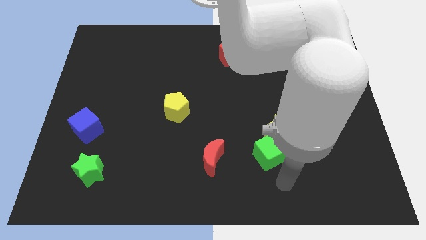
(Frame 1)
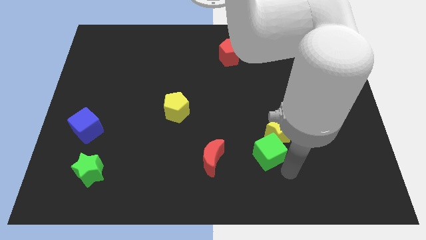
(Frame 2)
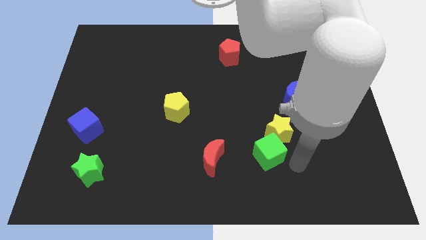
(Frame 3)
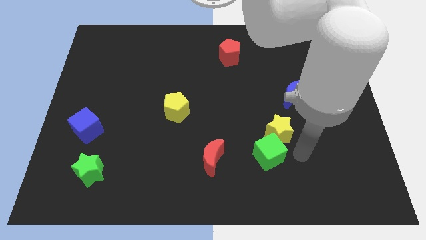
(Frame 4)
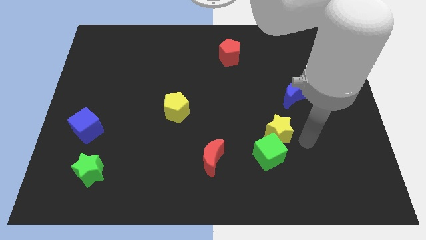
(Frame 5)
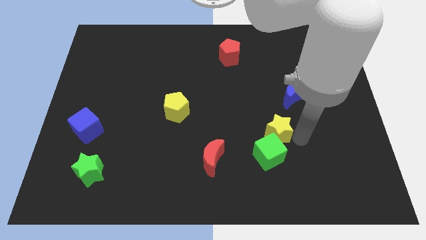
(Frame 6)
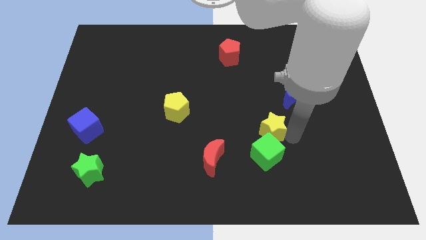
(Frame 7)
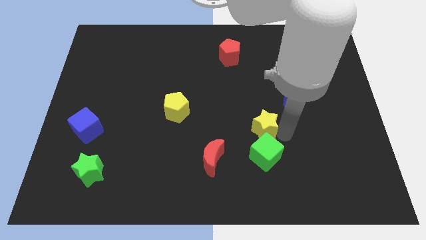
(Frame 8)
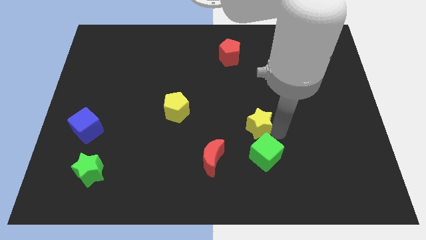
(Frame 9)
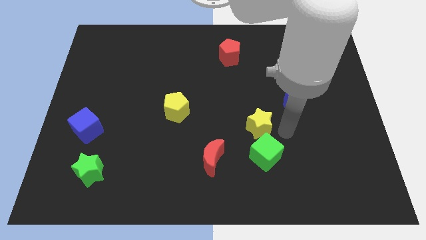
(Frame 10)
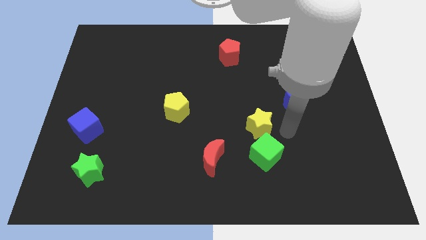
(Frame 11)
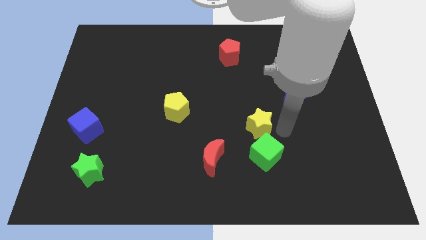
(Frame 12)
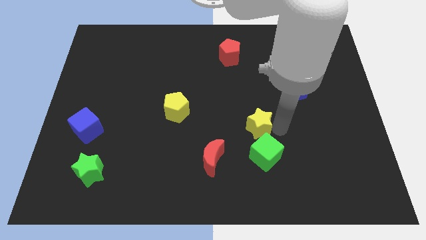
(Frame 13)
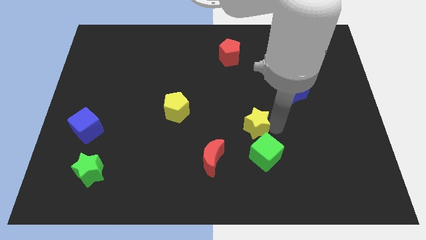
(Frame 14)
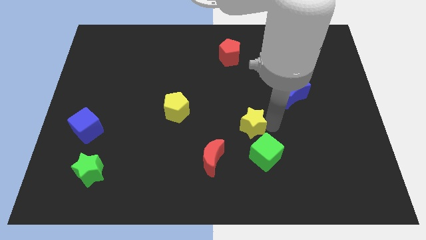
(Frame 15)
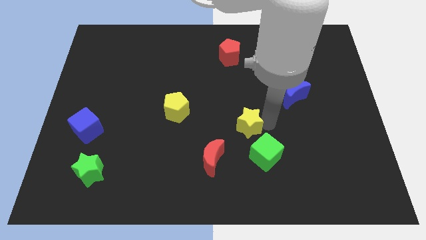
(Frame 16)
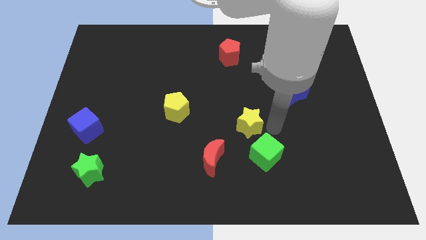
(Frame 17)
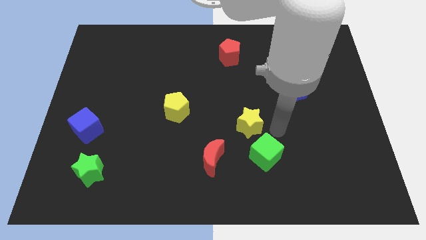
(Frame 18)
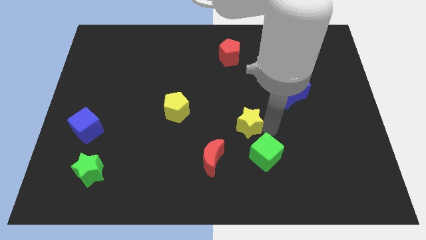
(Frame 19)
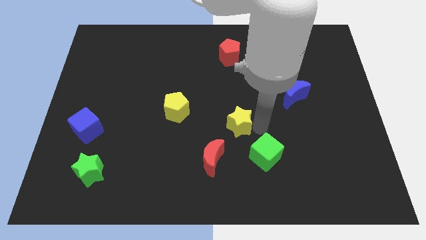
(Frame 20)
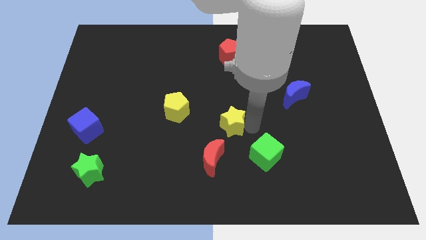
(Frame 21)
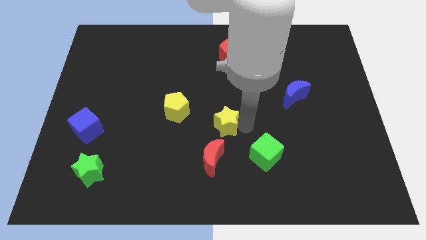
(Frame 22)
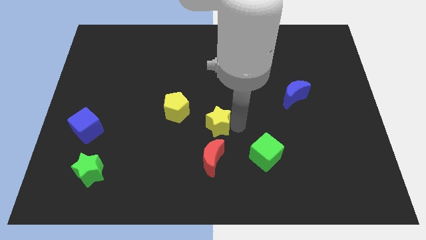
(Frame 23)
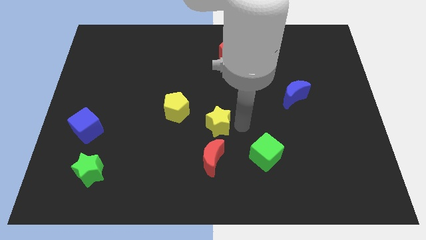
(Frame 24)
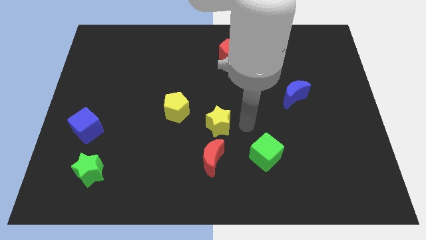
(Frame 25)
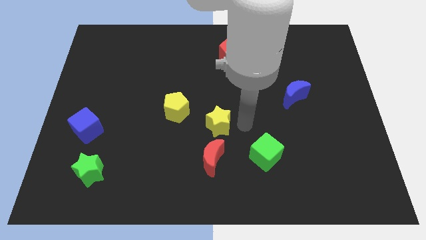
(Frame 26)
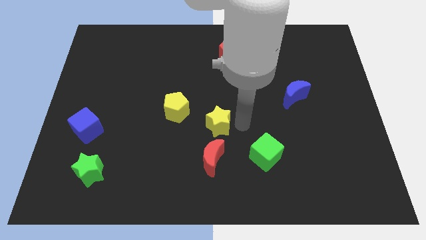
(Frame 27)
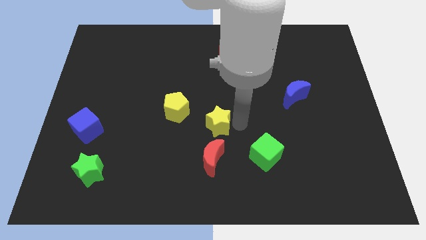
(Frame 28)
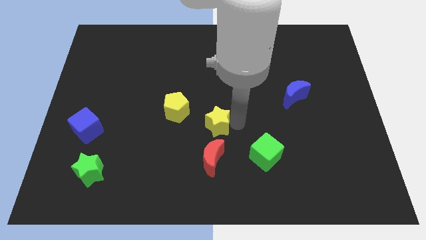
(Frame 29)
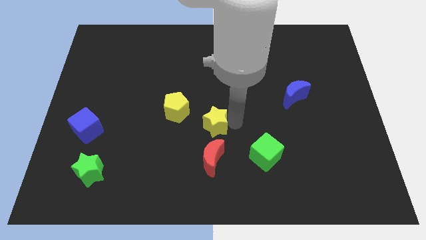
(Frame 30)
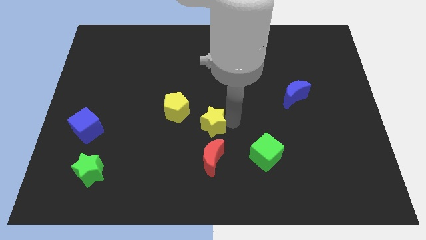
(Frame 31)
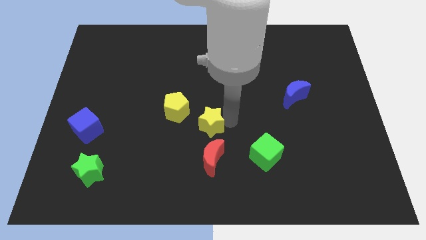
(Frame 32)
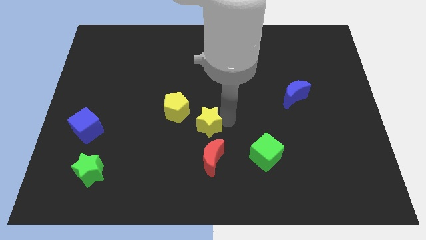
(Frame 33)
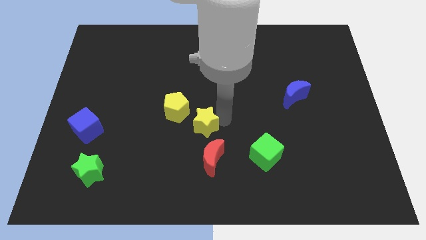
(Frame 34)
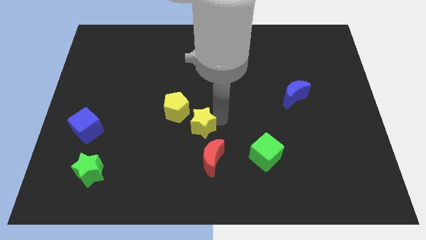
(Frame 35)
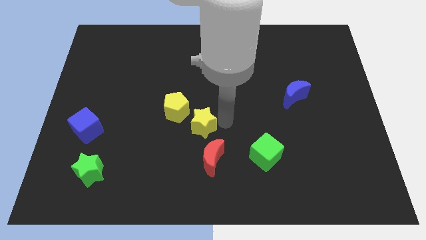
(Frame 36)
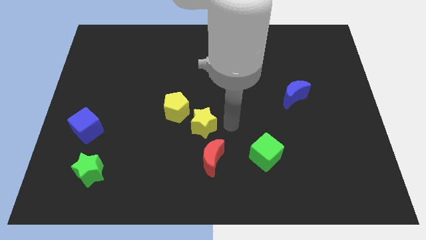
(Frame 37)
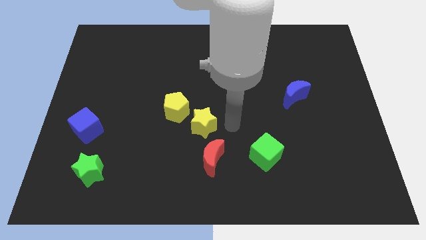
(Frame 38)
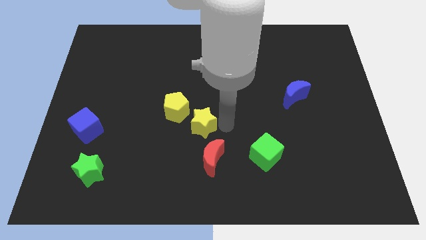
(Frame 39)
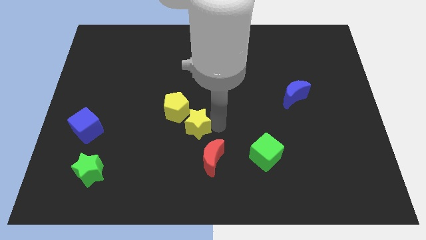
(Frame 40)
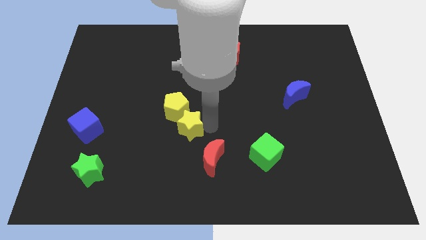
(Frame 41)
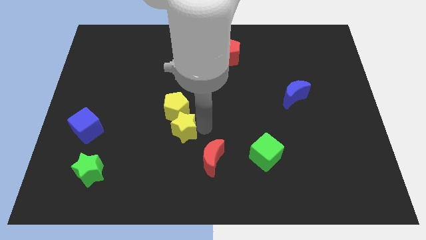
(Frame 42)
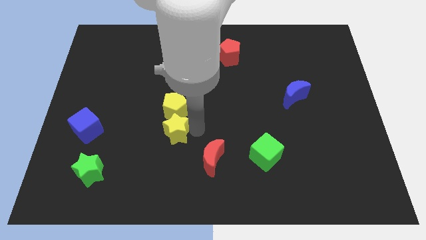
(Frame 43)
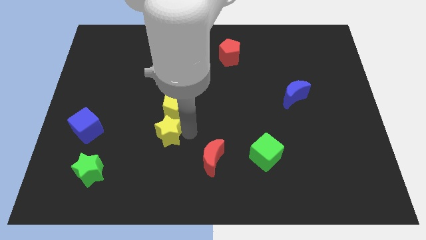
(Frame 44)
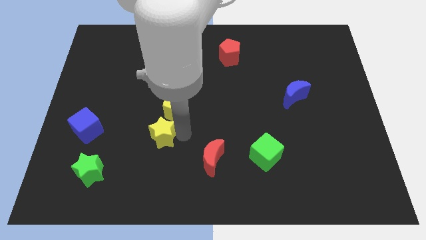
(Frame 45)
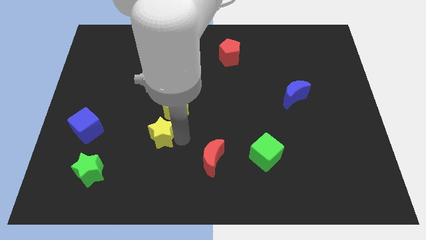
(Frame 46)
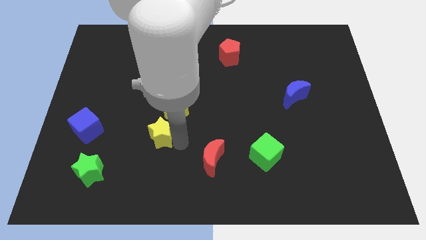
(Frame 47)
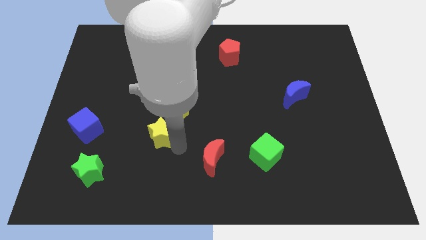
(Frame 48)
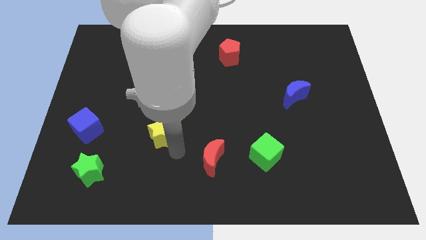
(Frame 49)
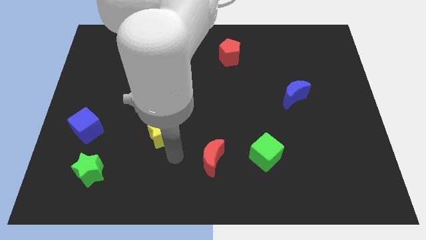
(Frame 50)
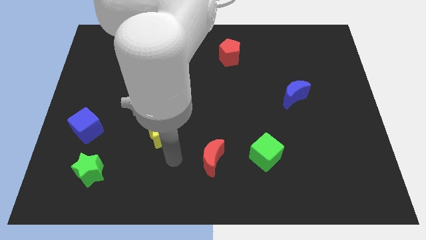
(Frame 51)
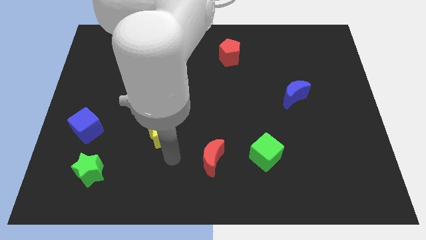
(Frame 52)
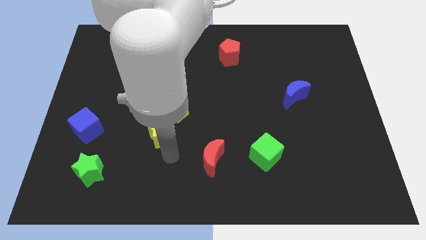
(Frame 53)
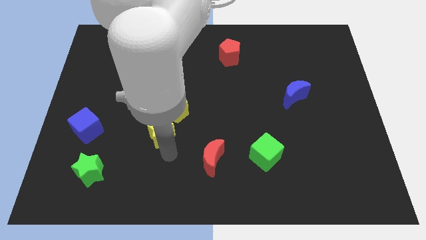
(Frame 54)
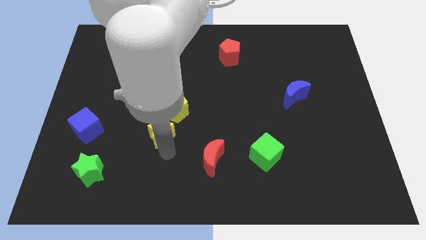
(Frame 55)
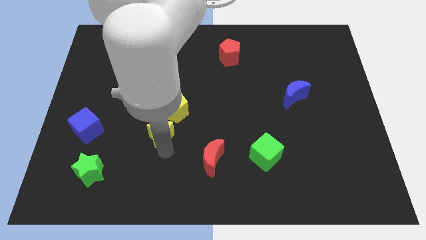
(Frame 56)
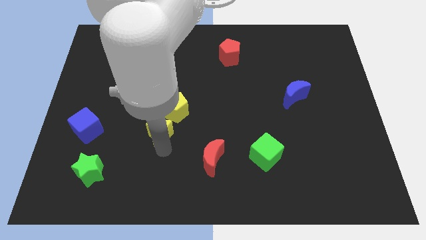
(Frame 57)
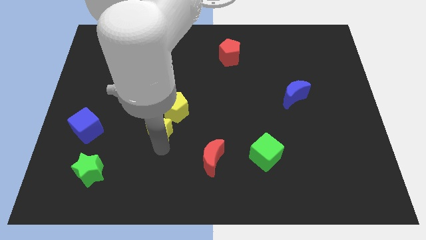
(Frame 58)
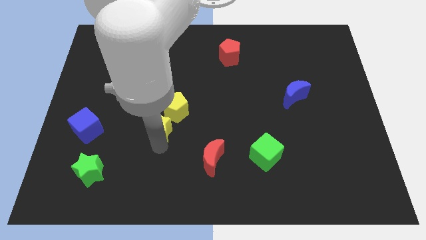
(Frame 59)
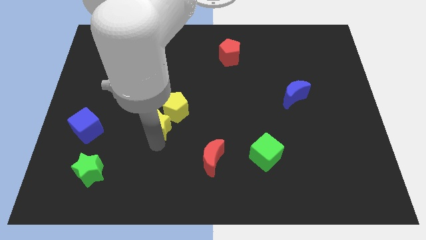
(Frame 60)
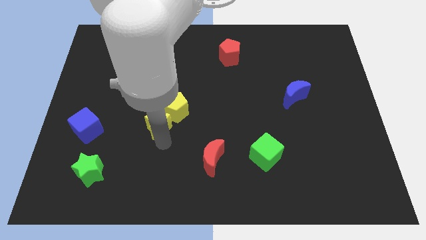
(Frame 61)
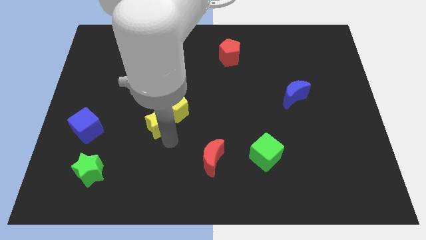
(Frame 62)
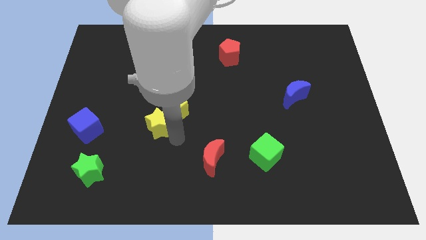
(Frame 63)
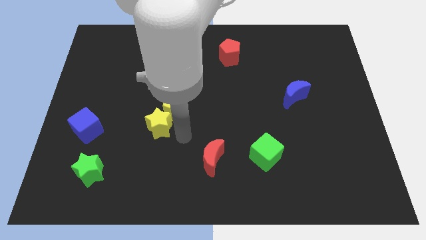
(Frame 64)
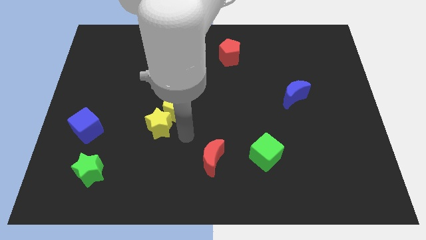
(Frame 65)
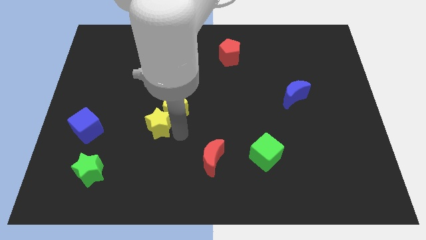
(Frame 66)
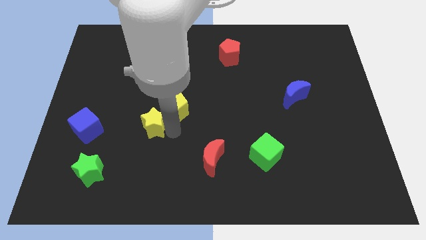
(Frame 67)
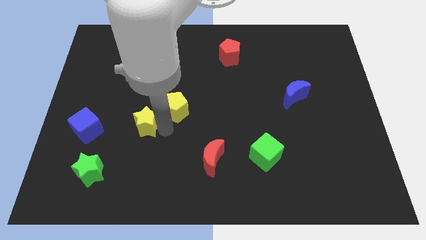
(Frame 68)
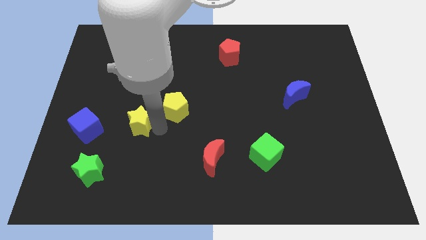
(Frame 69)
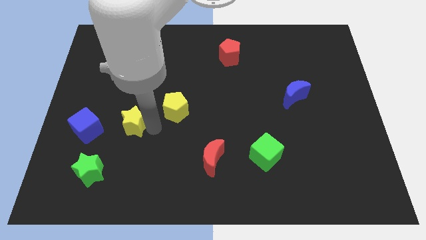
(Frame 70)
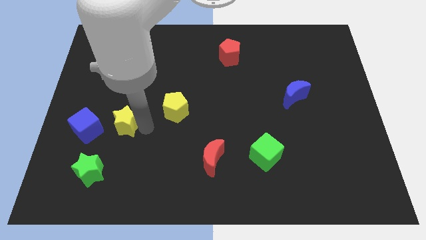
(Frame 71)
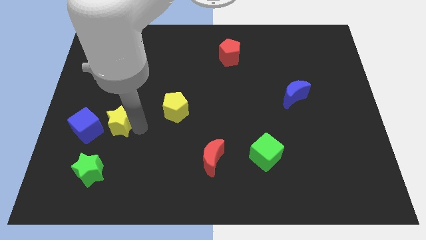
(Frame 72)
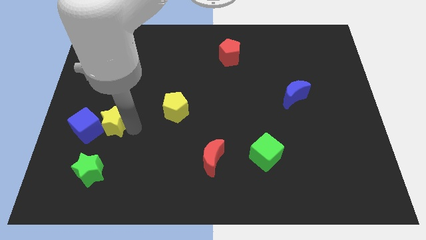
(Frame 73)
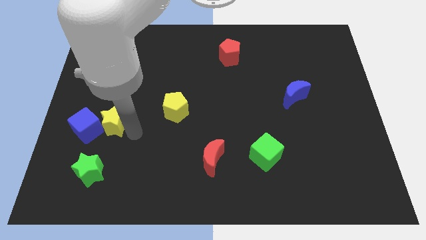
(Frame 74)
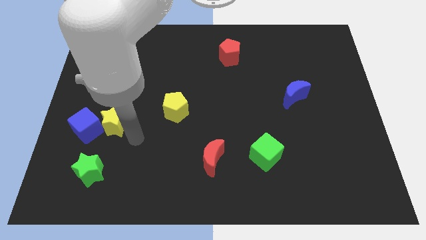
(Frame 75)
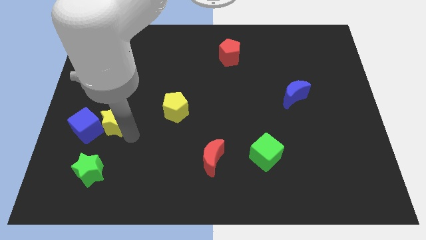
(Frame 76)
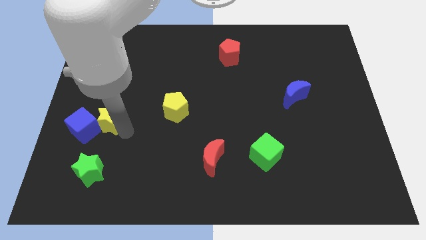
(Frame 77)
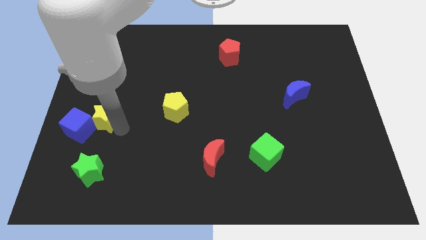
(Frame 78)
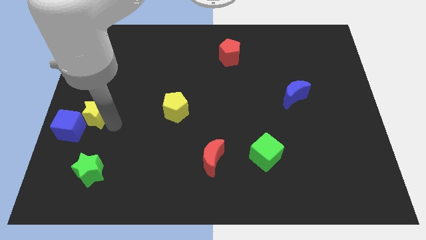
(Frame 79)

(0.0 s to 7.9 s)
put the yellow star to the left side
